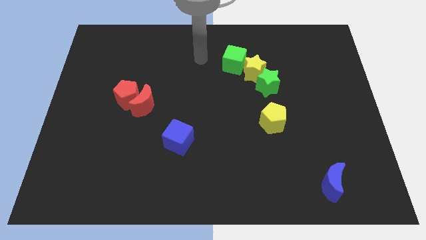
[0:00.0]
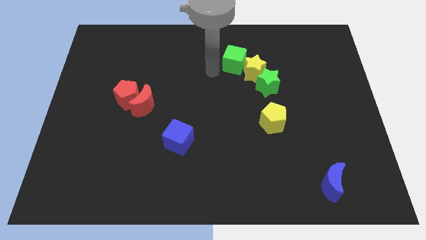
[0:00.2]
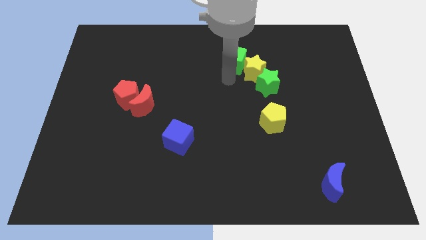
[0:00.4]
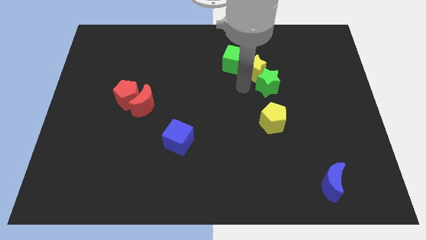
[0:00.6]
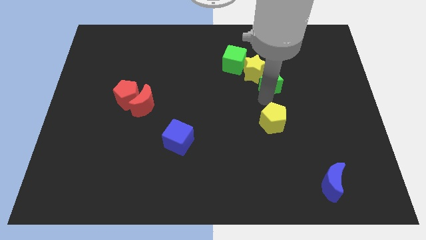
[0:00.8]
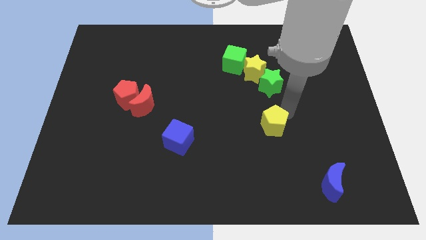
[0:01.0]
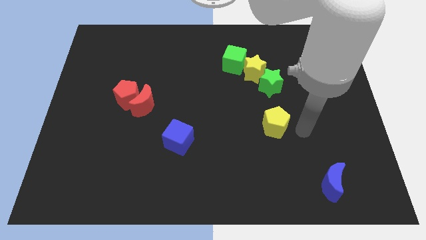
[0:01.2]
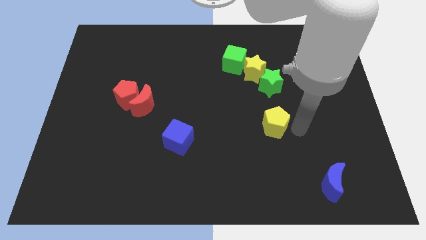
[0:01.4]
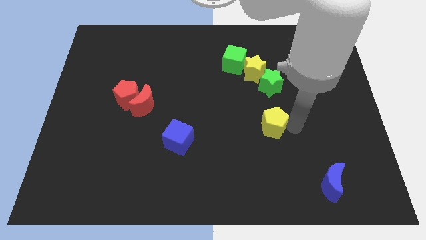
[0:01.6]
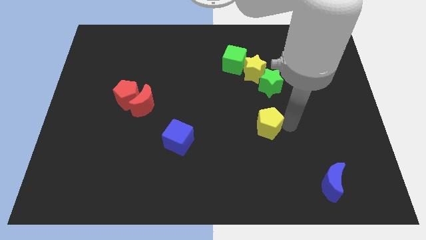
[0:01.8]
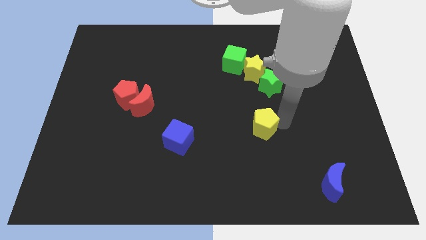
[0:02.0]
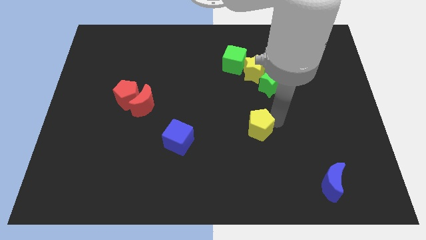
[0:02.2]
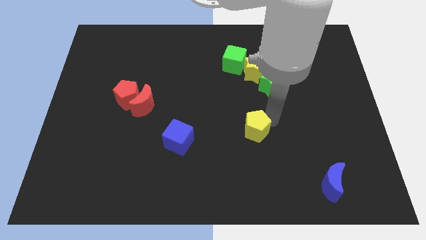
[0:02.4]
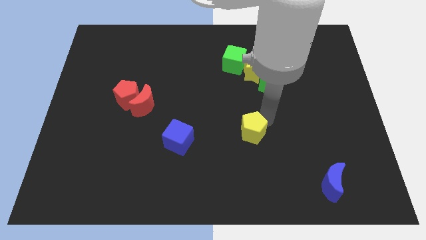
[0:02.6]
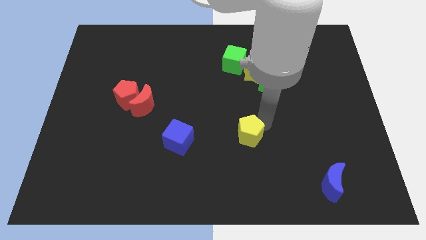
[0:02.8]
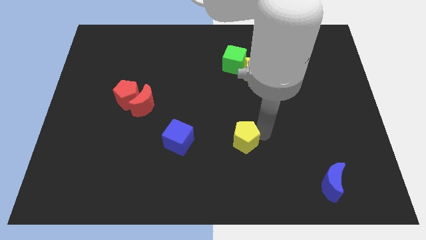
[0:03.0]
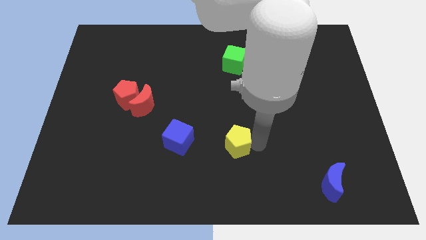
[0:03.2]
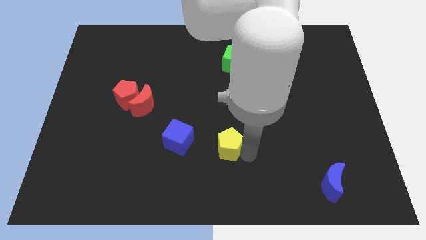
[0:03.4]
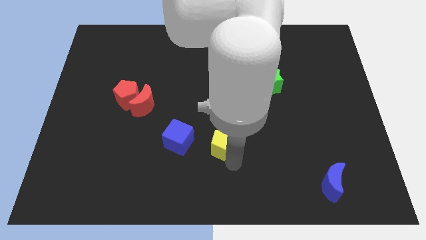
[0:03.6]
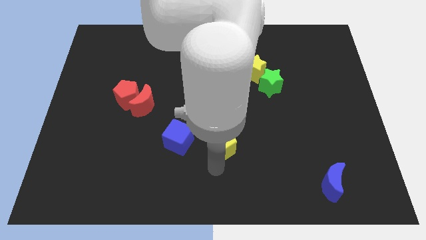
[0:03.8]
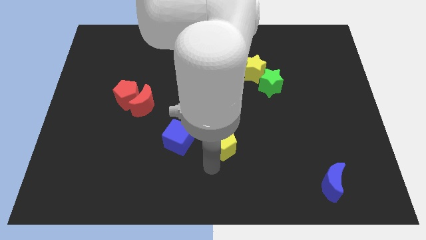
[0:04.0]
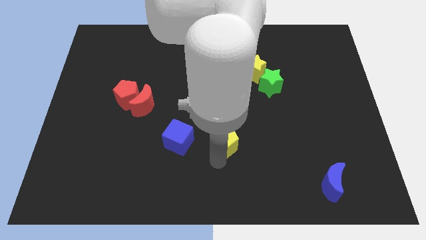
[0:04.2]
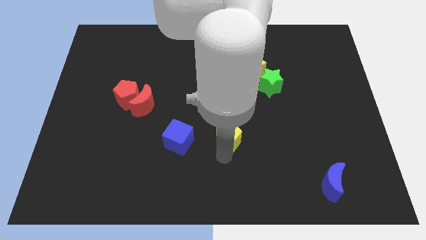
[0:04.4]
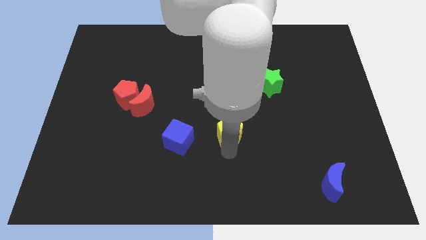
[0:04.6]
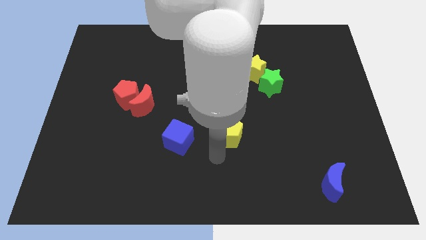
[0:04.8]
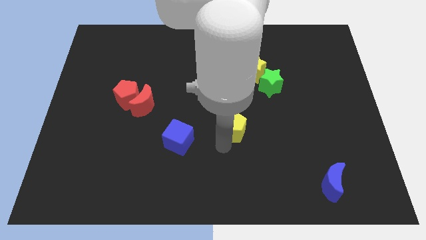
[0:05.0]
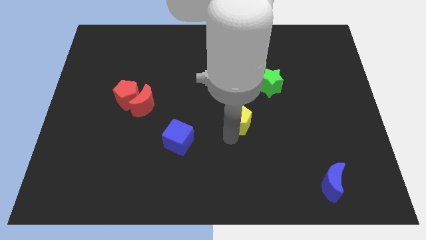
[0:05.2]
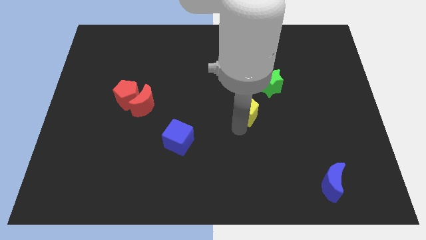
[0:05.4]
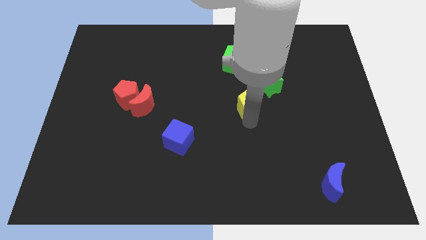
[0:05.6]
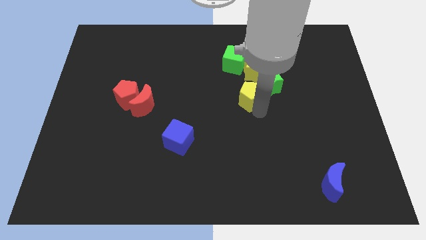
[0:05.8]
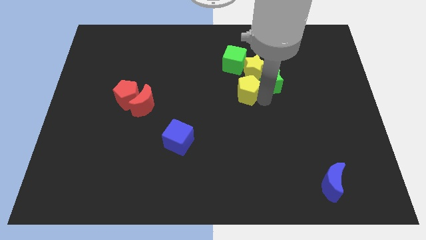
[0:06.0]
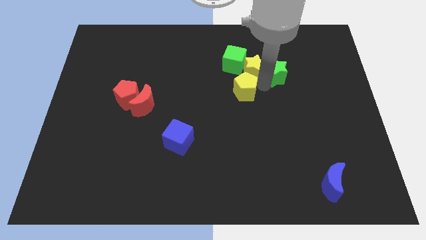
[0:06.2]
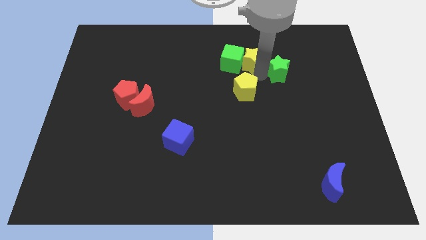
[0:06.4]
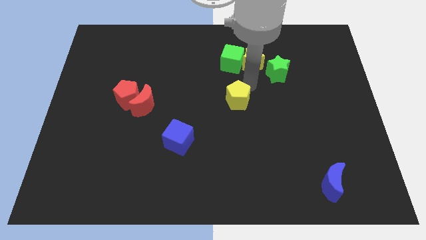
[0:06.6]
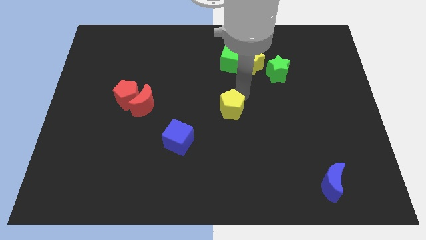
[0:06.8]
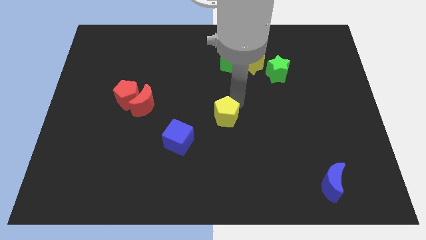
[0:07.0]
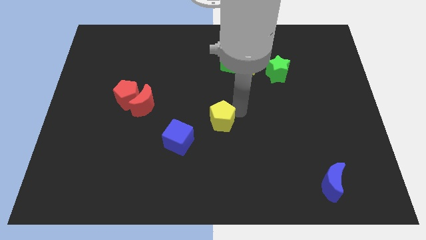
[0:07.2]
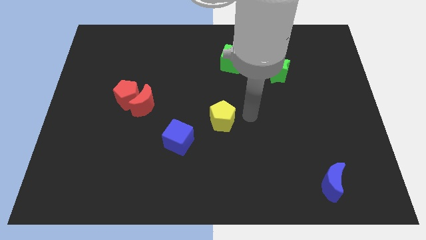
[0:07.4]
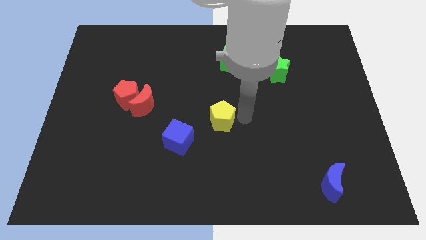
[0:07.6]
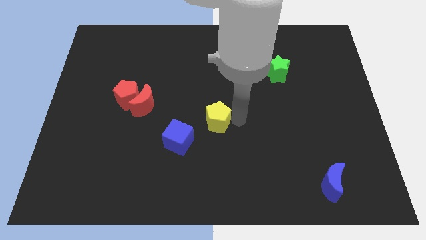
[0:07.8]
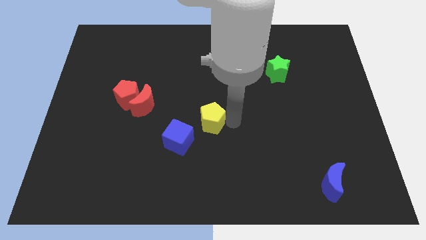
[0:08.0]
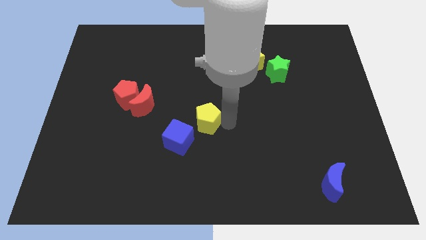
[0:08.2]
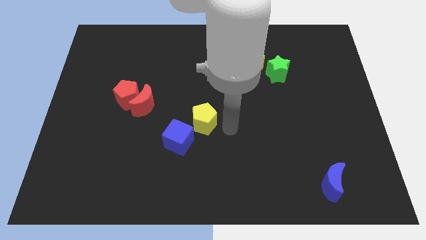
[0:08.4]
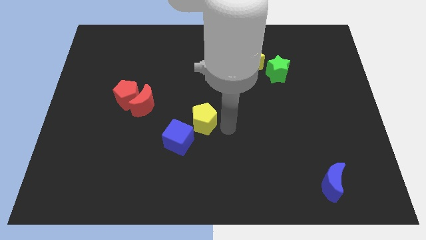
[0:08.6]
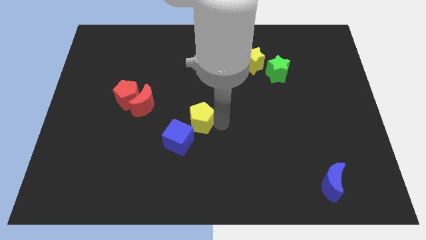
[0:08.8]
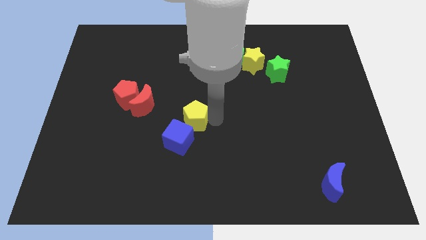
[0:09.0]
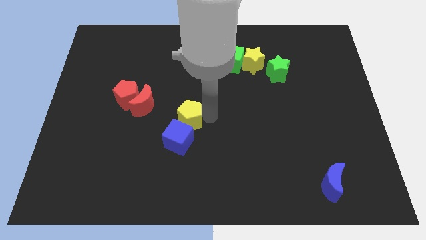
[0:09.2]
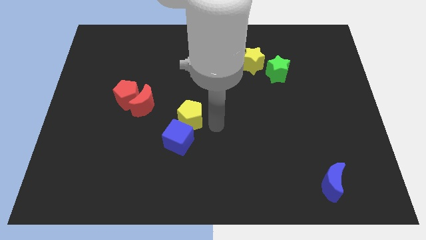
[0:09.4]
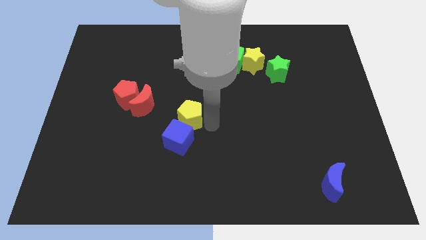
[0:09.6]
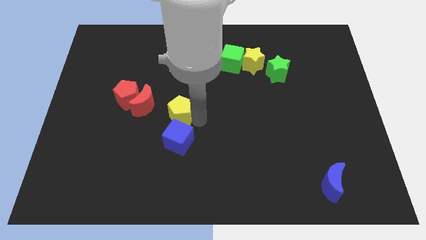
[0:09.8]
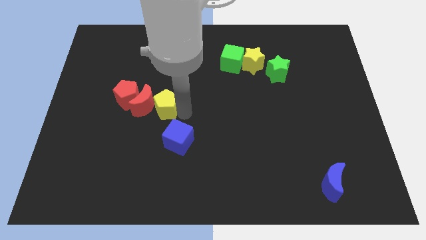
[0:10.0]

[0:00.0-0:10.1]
move the yellow pentagon to the red moon

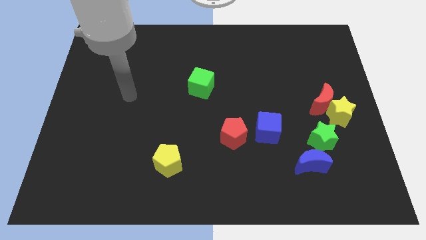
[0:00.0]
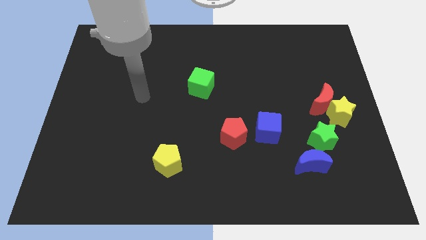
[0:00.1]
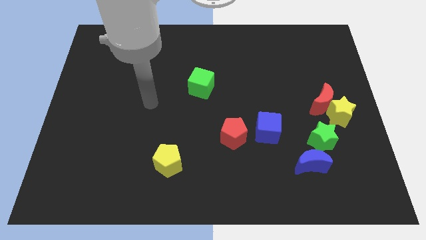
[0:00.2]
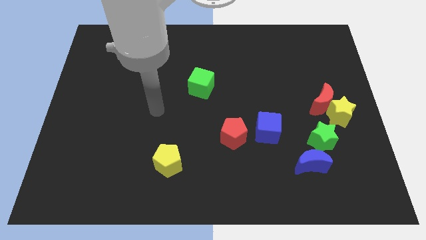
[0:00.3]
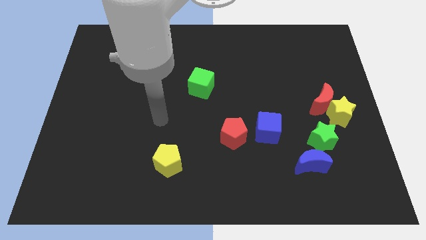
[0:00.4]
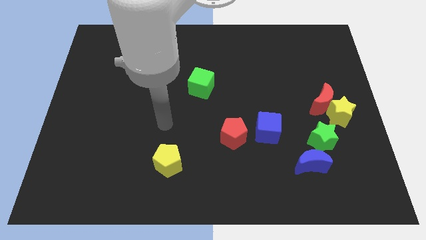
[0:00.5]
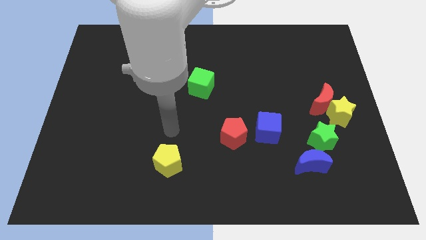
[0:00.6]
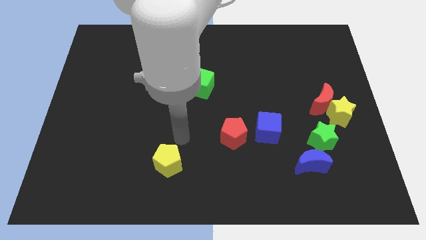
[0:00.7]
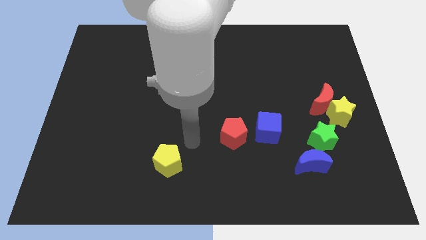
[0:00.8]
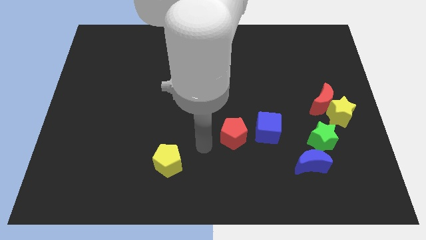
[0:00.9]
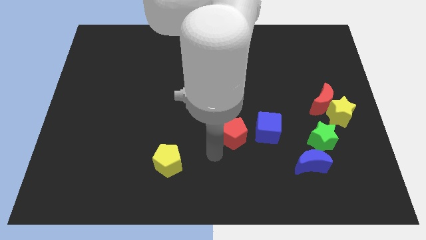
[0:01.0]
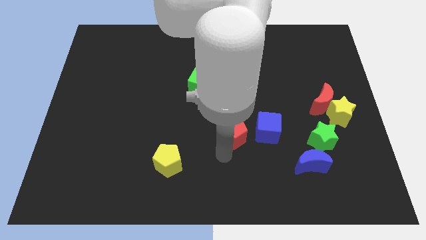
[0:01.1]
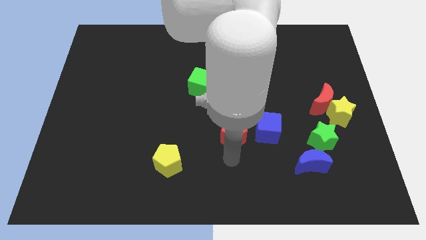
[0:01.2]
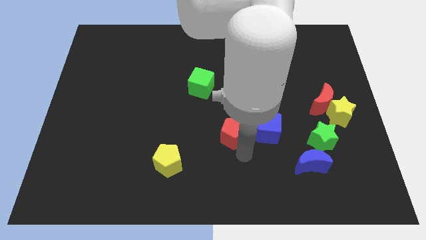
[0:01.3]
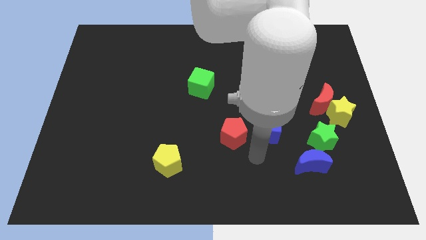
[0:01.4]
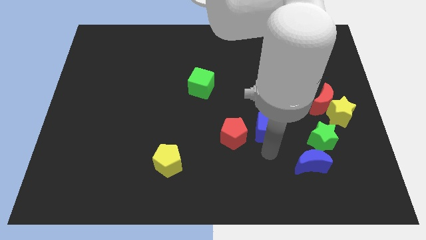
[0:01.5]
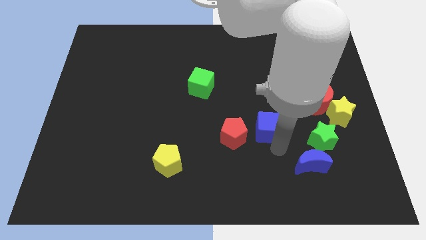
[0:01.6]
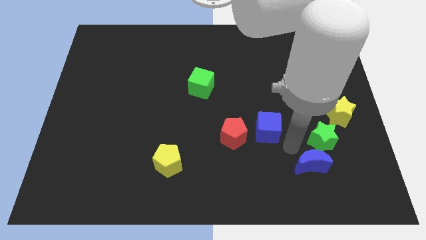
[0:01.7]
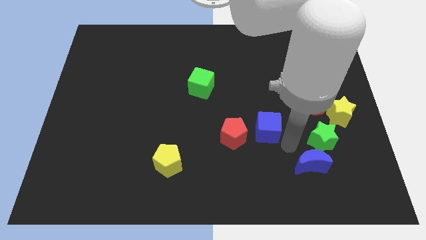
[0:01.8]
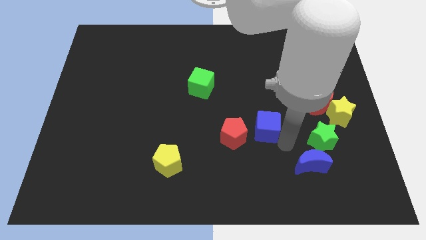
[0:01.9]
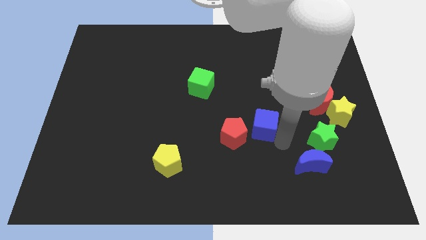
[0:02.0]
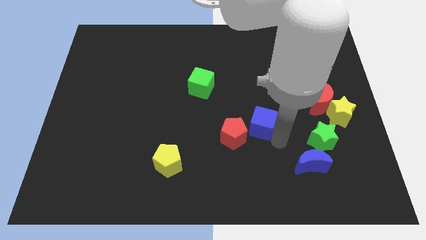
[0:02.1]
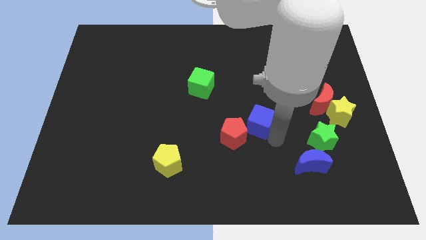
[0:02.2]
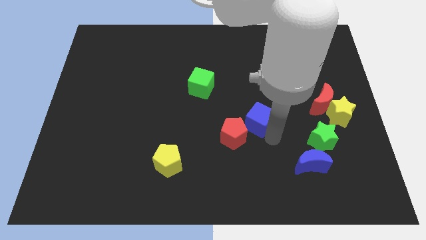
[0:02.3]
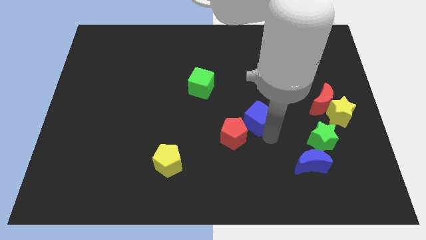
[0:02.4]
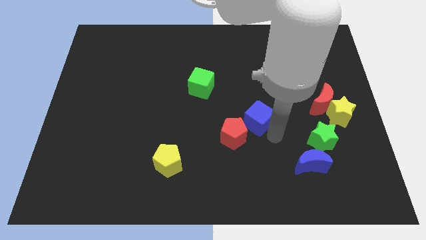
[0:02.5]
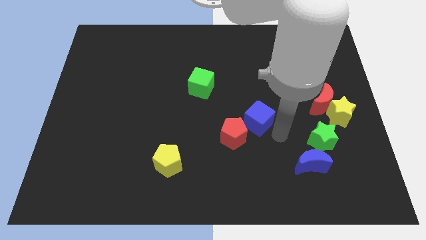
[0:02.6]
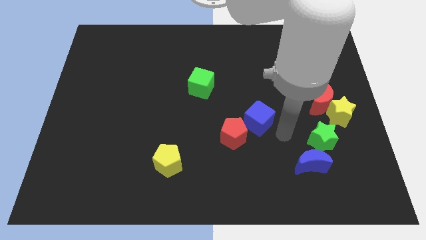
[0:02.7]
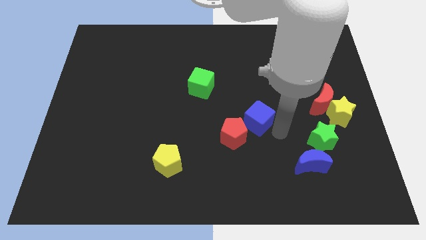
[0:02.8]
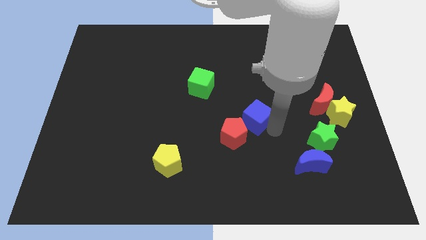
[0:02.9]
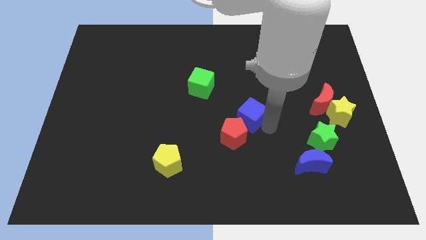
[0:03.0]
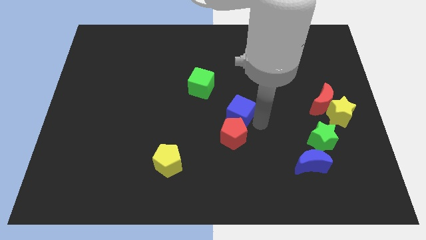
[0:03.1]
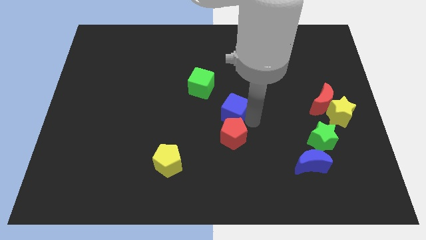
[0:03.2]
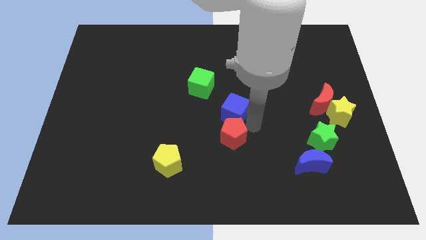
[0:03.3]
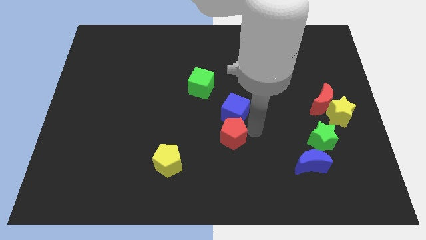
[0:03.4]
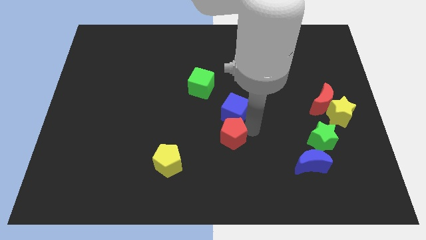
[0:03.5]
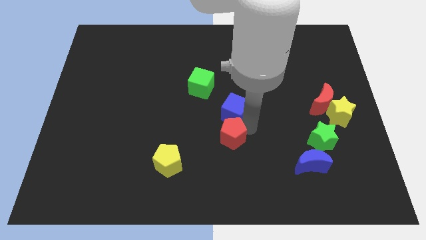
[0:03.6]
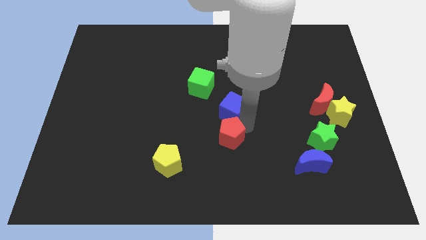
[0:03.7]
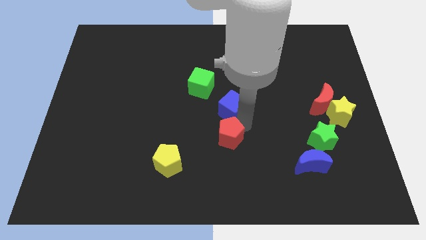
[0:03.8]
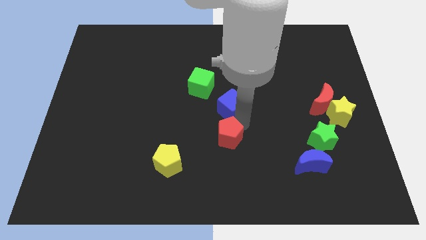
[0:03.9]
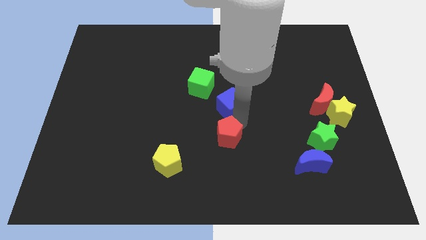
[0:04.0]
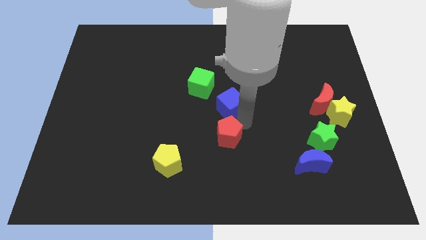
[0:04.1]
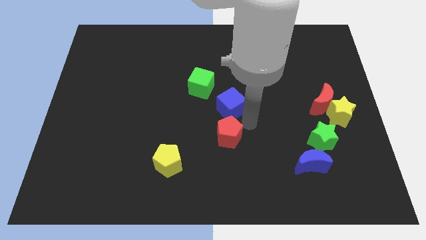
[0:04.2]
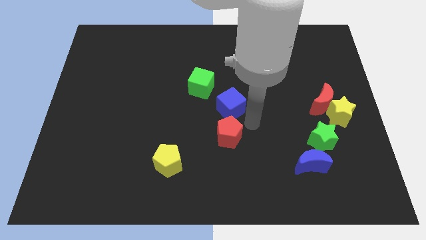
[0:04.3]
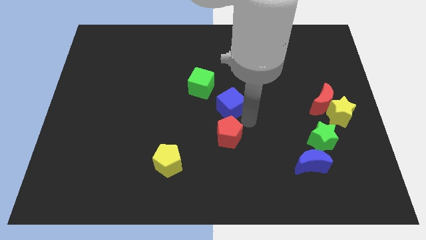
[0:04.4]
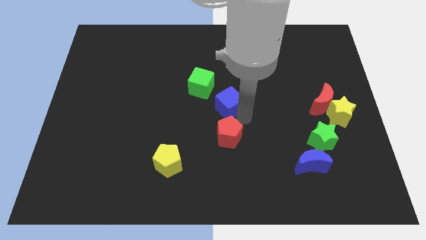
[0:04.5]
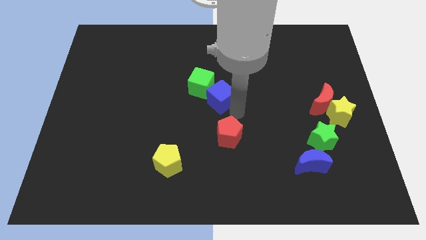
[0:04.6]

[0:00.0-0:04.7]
put the blue cube towards the green cube
